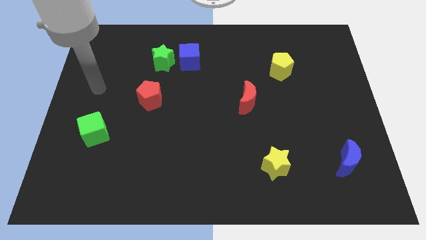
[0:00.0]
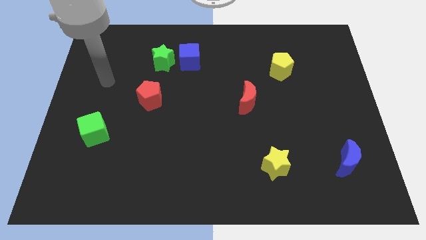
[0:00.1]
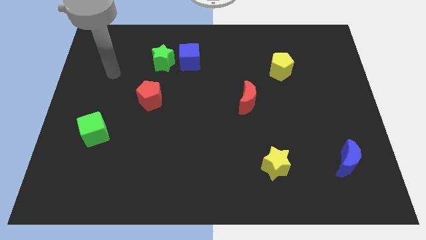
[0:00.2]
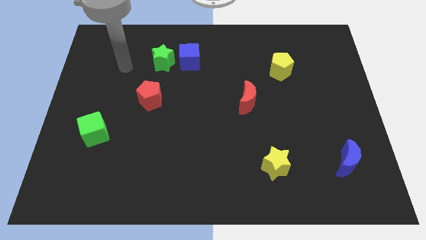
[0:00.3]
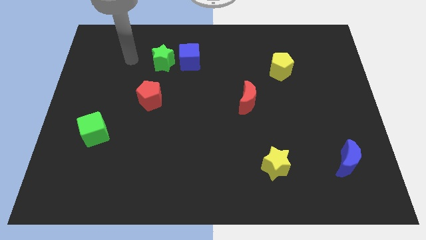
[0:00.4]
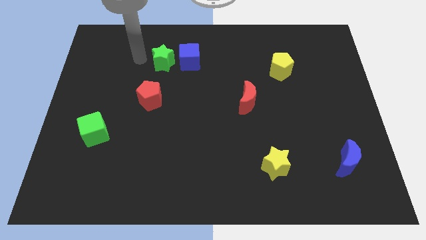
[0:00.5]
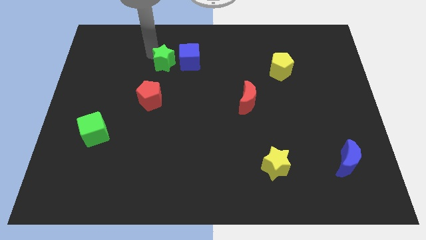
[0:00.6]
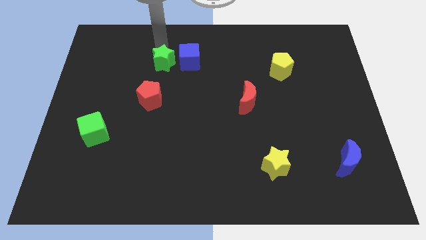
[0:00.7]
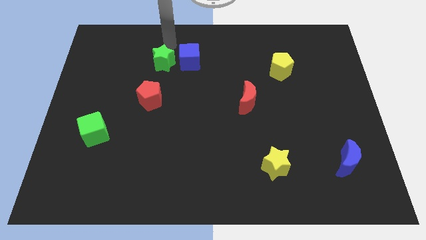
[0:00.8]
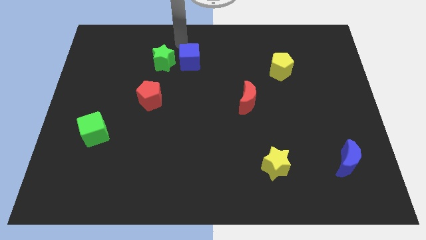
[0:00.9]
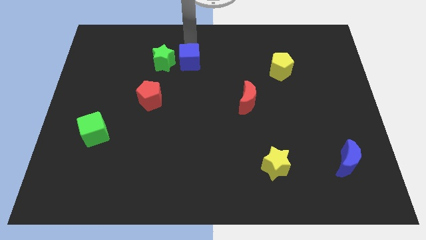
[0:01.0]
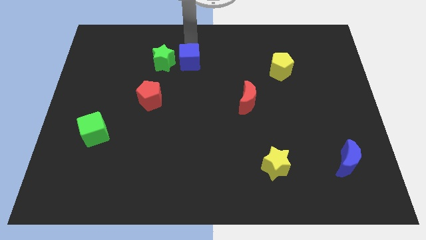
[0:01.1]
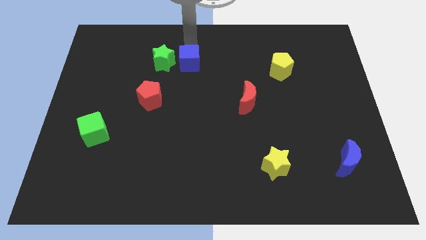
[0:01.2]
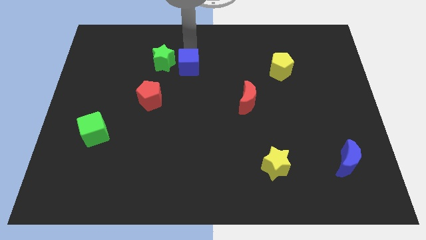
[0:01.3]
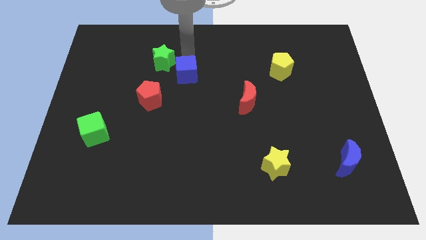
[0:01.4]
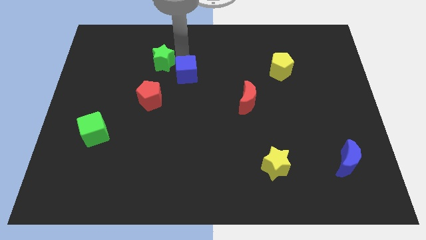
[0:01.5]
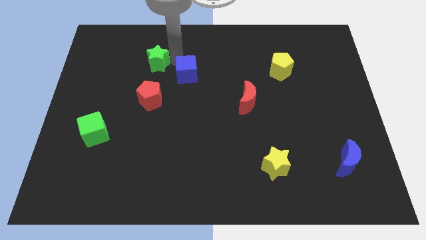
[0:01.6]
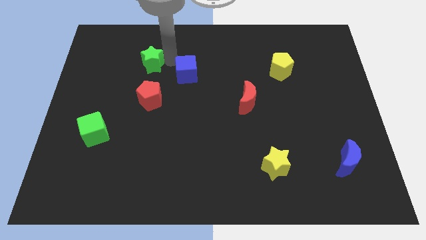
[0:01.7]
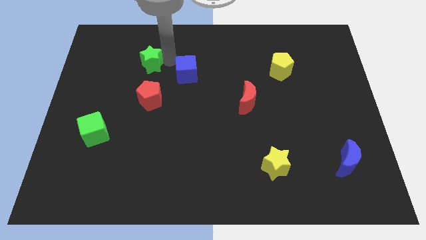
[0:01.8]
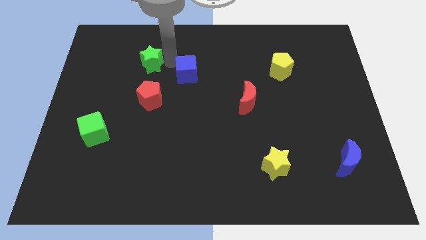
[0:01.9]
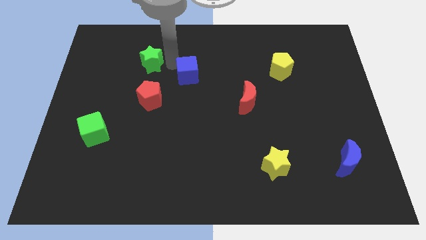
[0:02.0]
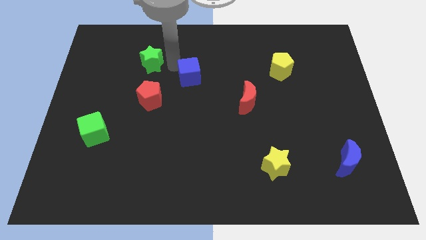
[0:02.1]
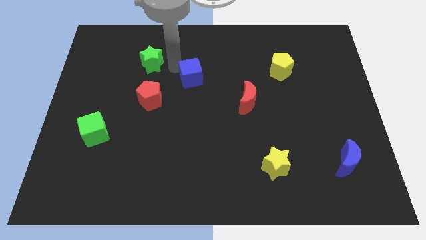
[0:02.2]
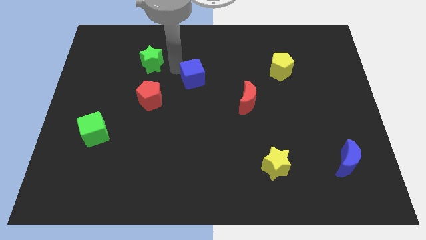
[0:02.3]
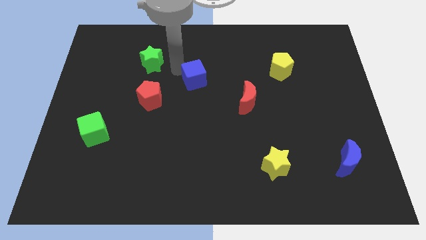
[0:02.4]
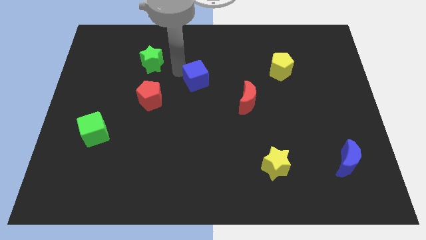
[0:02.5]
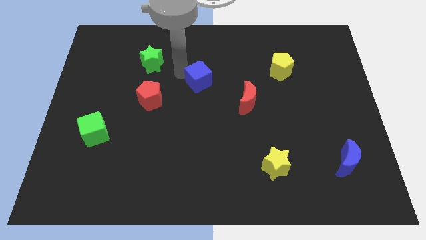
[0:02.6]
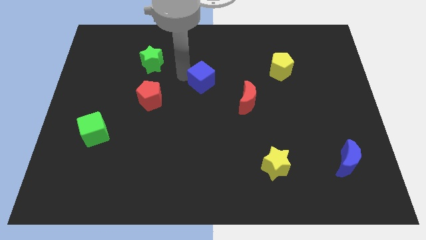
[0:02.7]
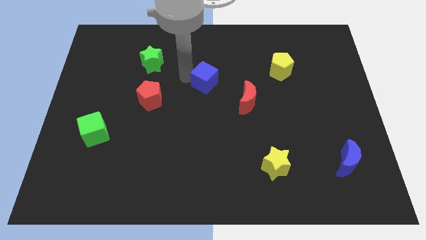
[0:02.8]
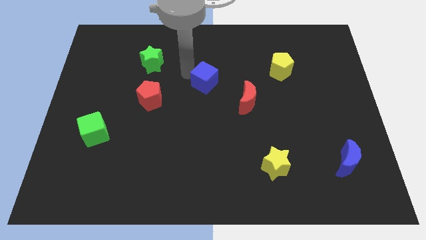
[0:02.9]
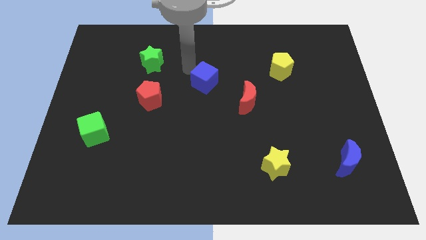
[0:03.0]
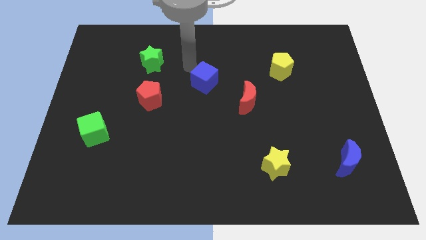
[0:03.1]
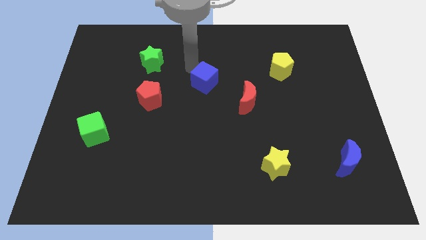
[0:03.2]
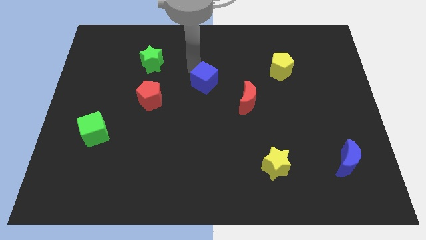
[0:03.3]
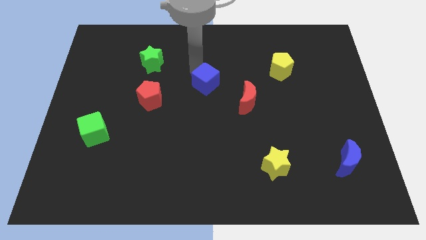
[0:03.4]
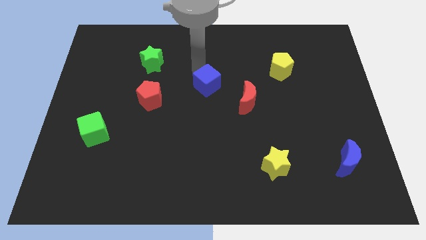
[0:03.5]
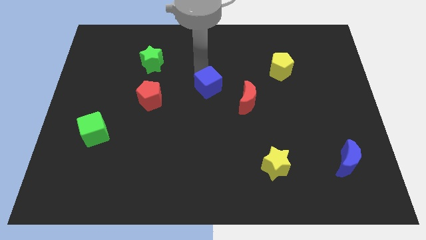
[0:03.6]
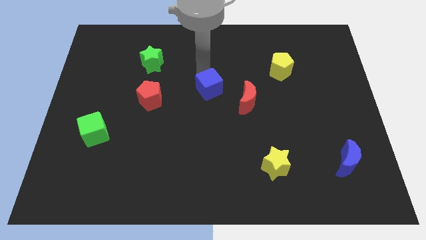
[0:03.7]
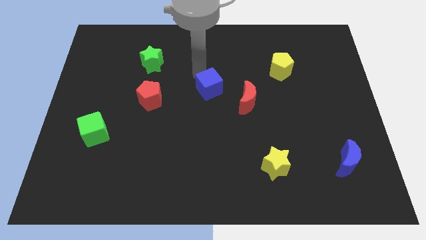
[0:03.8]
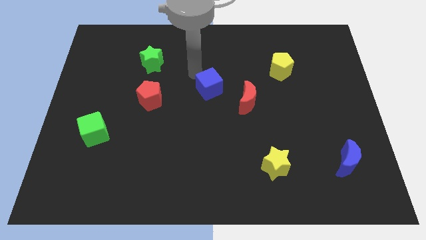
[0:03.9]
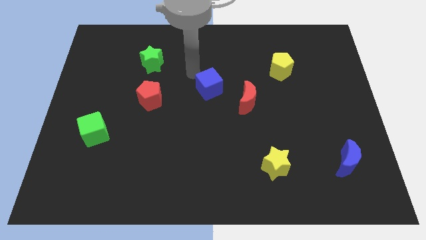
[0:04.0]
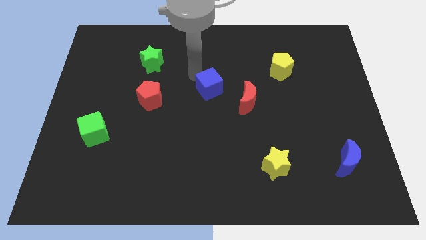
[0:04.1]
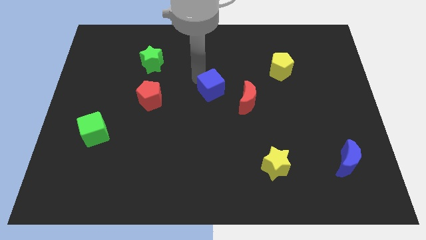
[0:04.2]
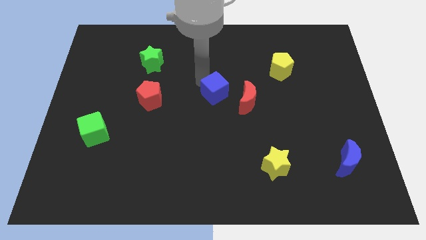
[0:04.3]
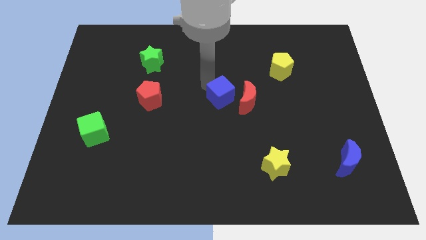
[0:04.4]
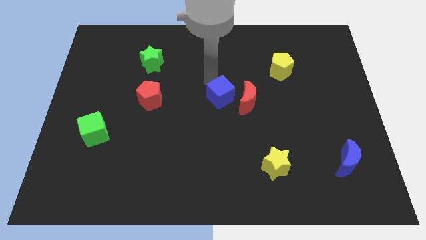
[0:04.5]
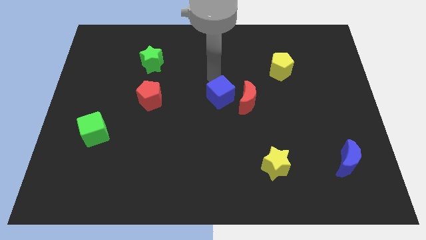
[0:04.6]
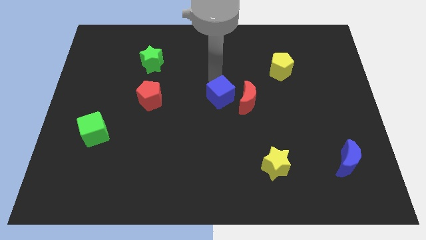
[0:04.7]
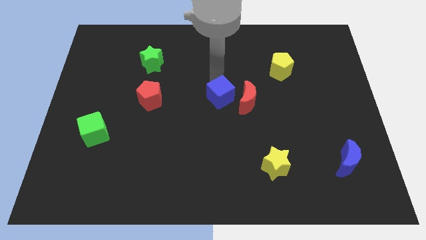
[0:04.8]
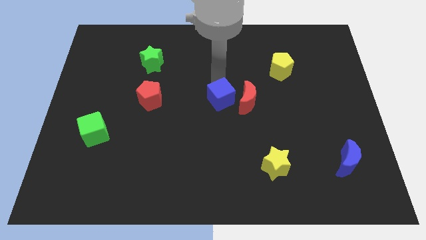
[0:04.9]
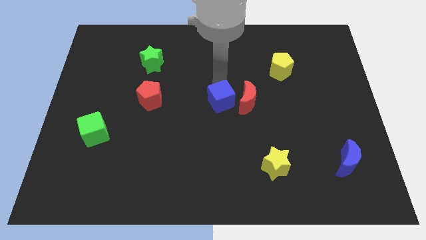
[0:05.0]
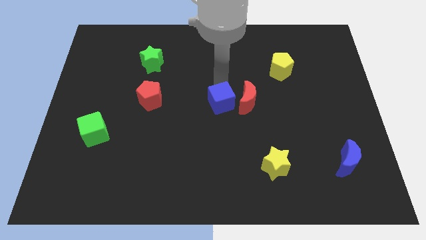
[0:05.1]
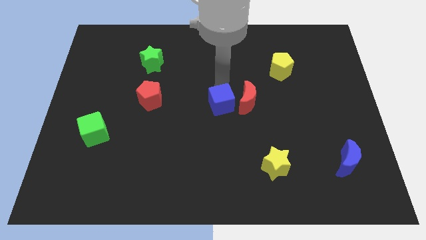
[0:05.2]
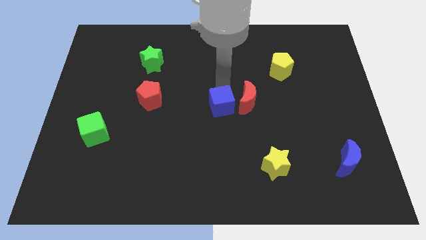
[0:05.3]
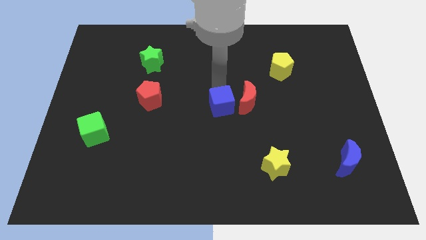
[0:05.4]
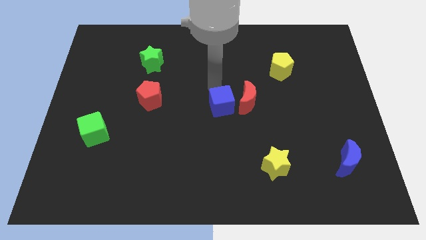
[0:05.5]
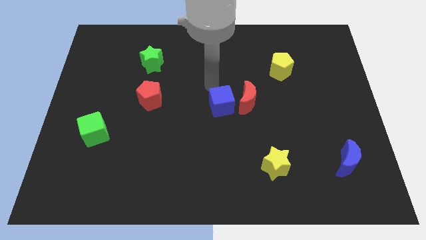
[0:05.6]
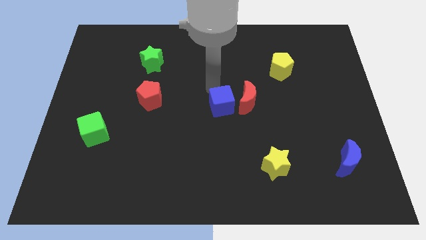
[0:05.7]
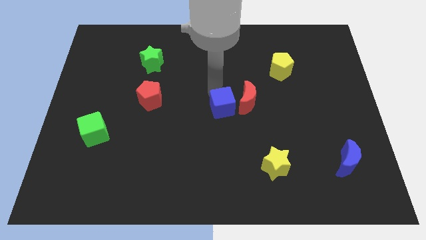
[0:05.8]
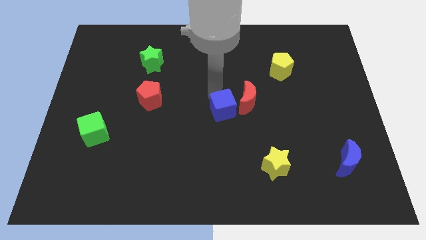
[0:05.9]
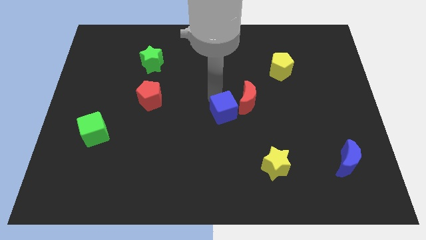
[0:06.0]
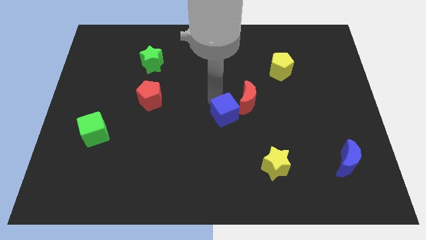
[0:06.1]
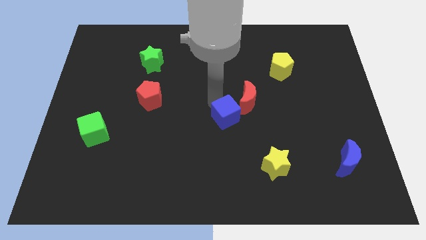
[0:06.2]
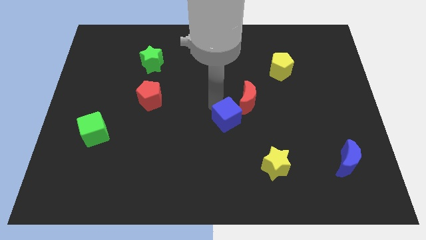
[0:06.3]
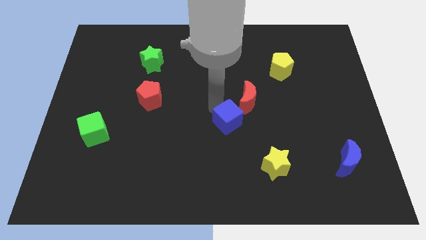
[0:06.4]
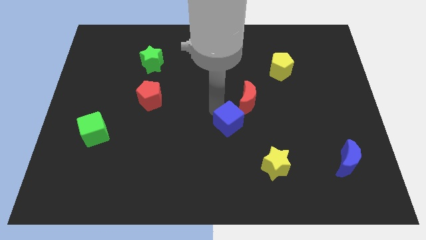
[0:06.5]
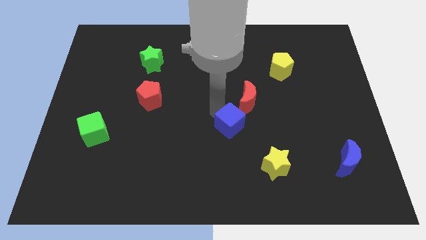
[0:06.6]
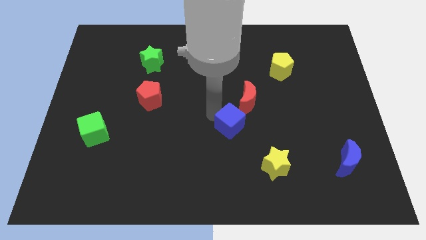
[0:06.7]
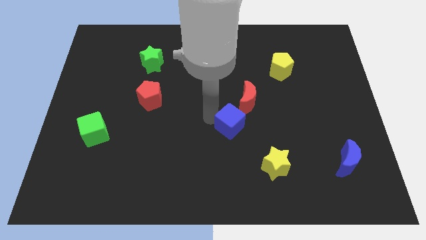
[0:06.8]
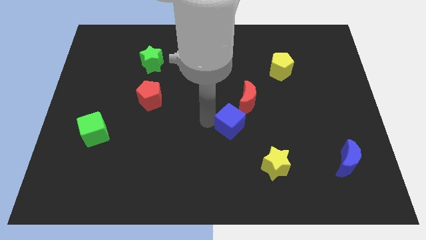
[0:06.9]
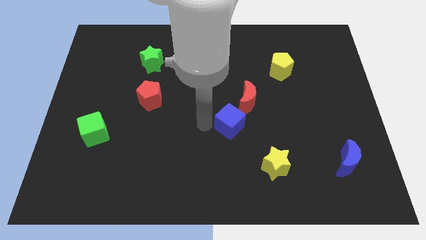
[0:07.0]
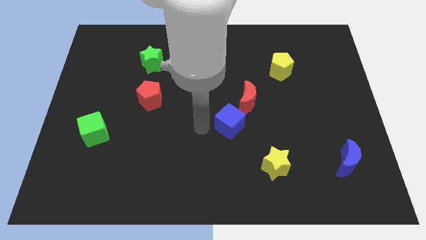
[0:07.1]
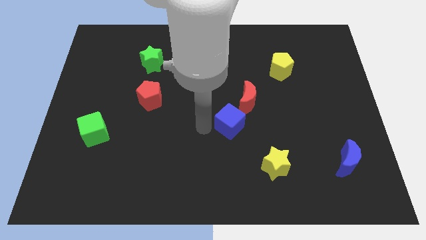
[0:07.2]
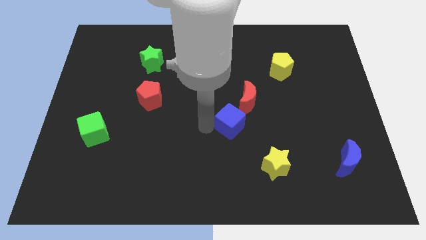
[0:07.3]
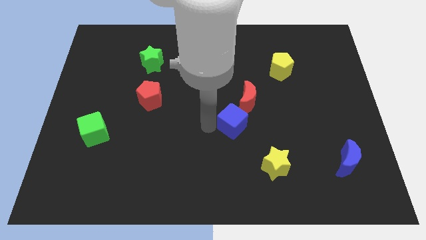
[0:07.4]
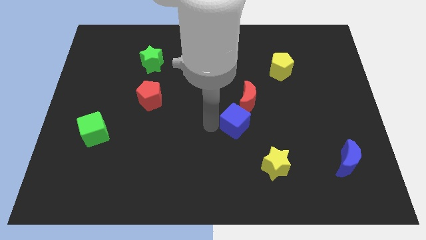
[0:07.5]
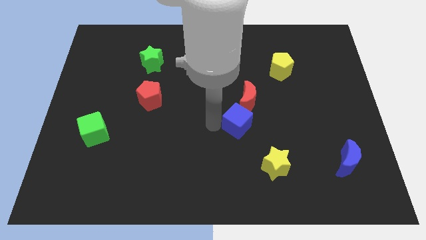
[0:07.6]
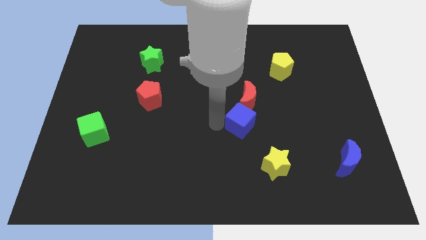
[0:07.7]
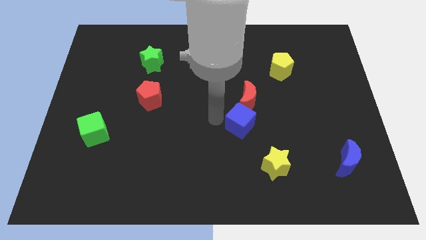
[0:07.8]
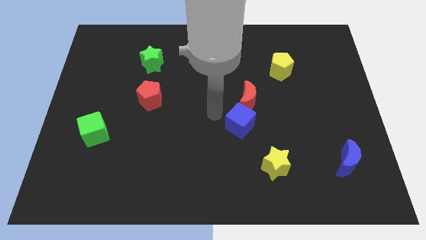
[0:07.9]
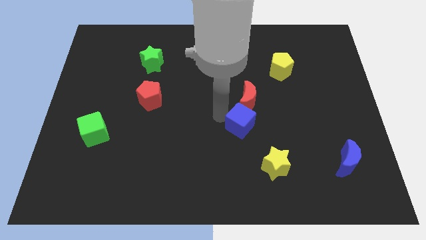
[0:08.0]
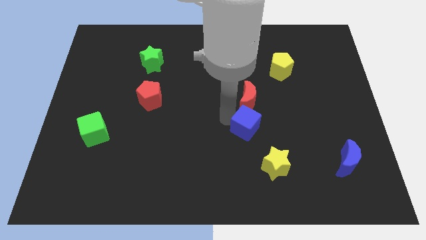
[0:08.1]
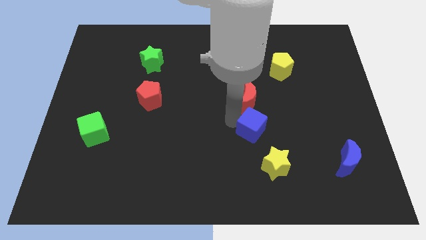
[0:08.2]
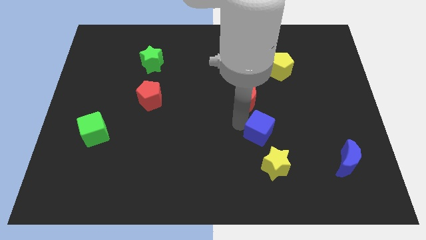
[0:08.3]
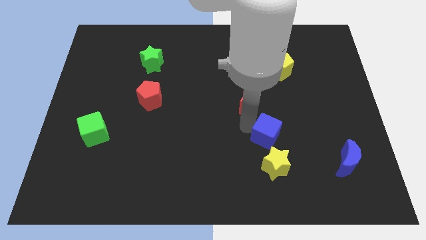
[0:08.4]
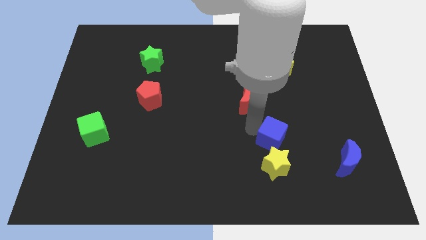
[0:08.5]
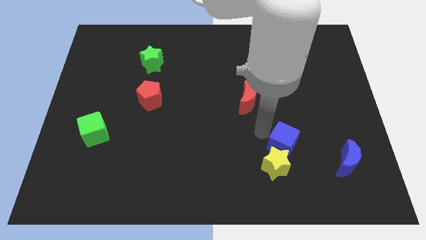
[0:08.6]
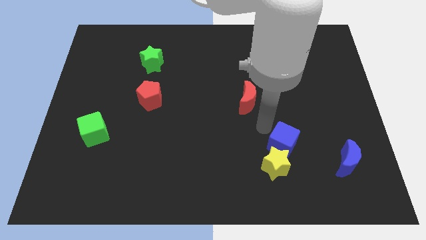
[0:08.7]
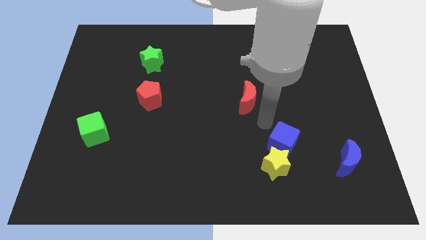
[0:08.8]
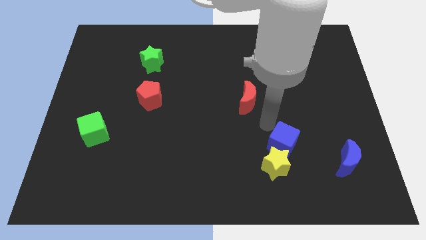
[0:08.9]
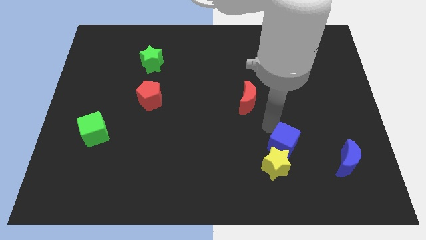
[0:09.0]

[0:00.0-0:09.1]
move the blue cube just left of the blue moon
